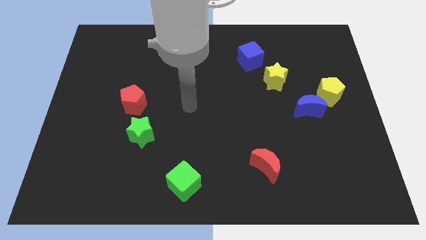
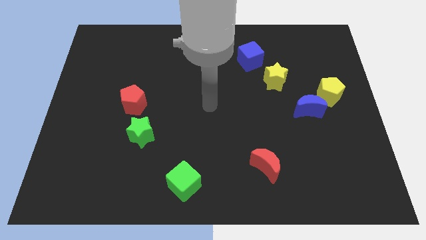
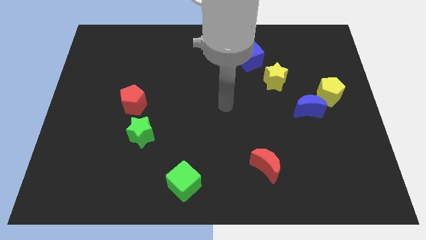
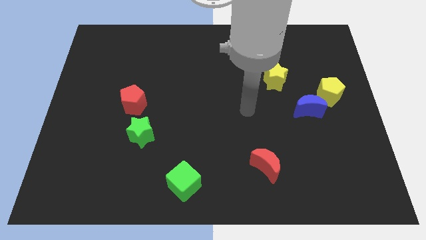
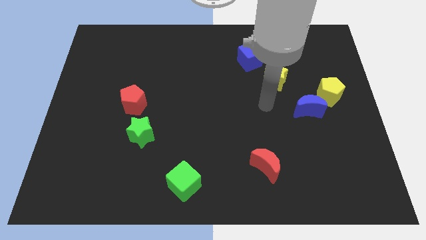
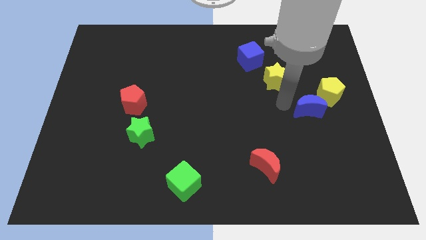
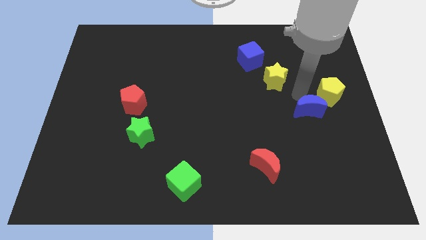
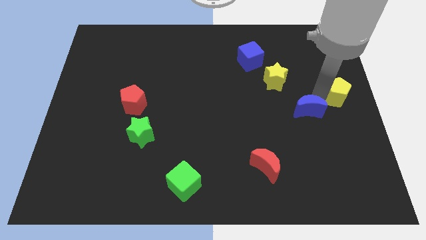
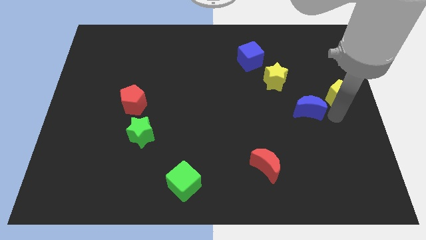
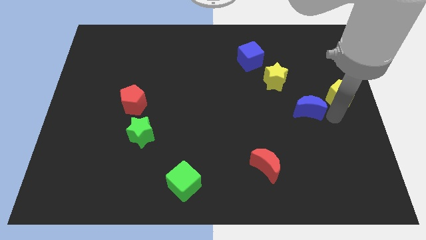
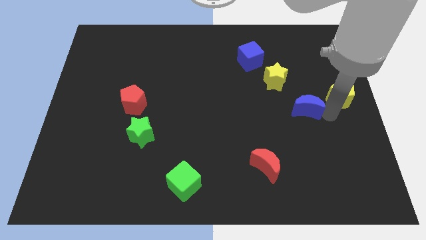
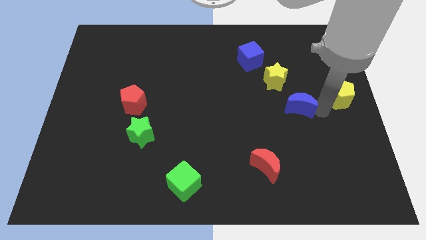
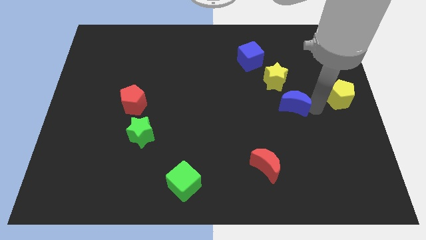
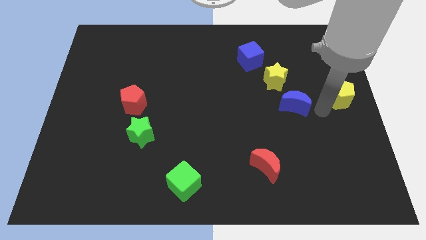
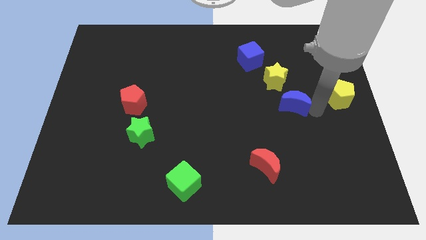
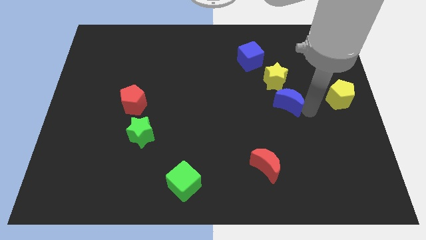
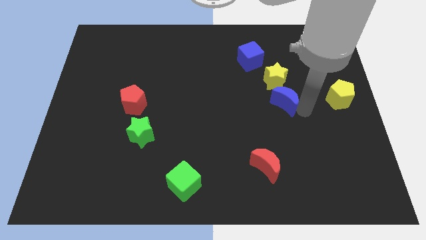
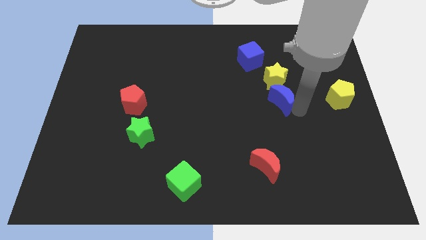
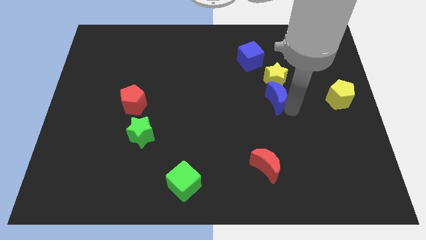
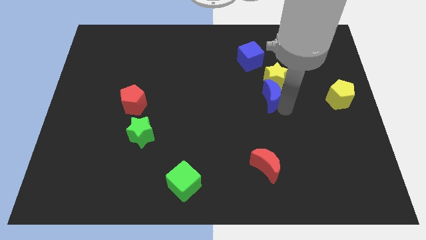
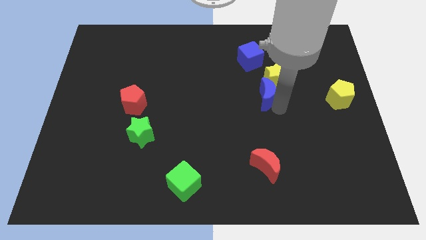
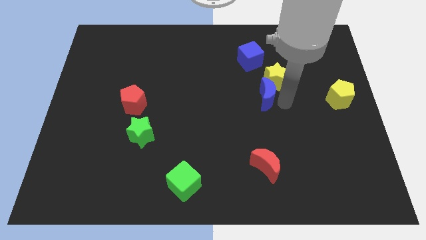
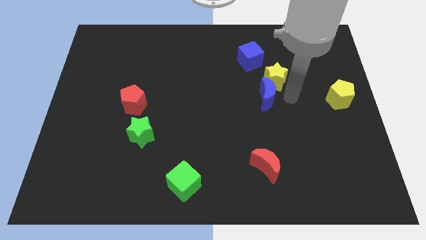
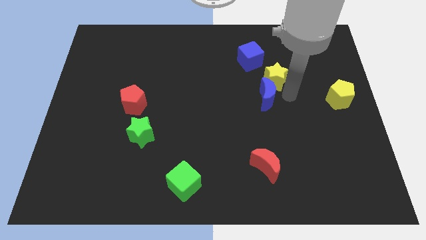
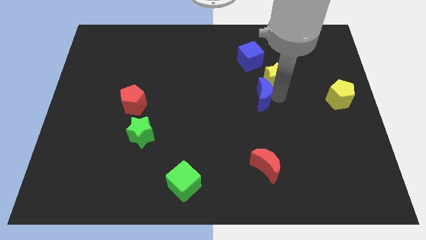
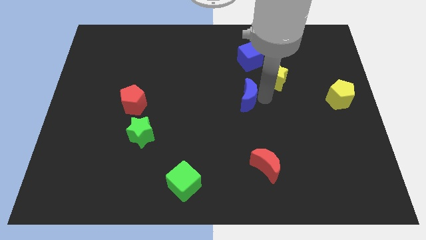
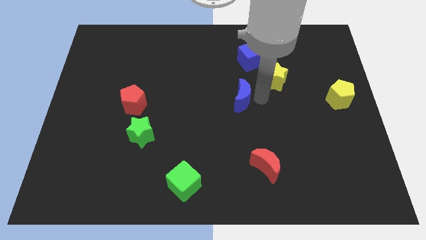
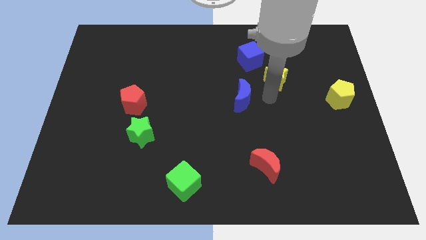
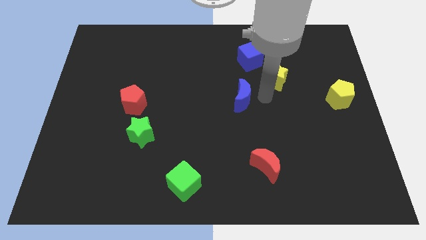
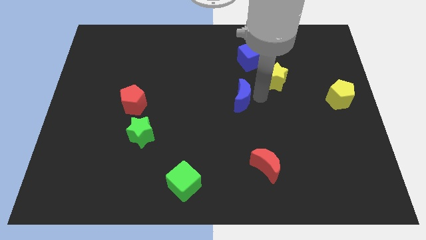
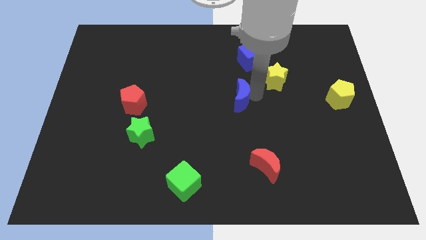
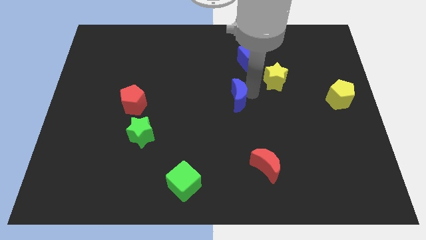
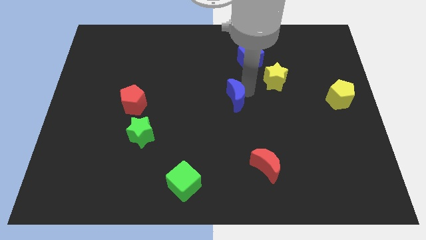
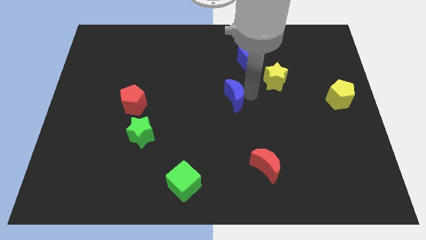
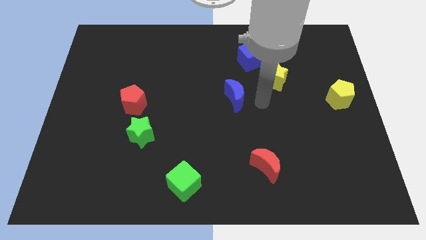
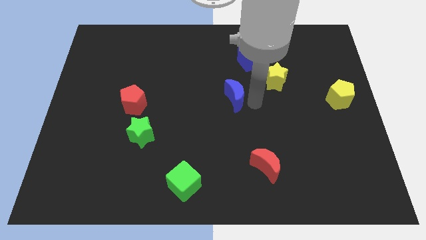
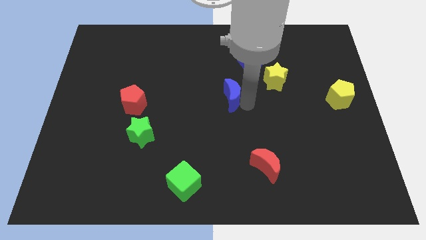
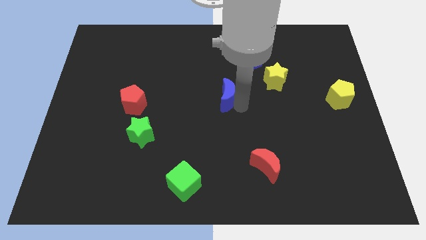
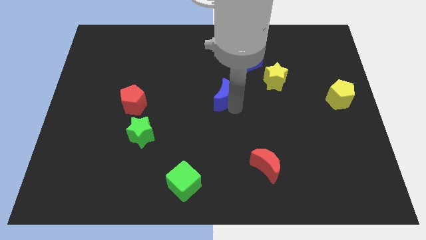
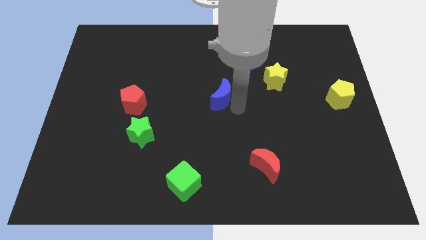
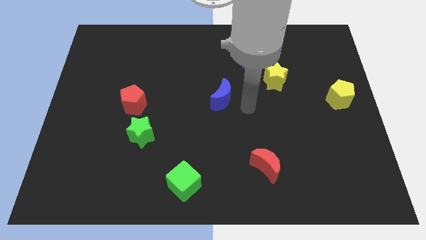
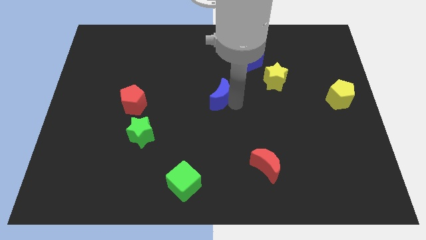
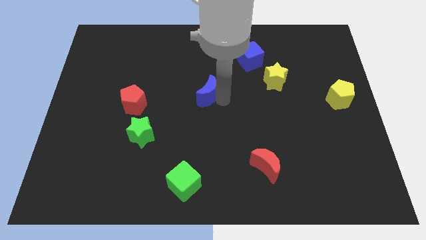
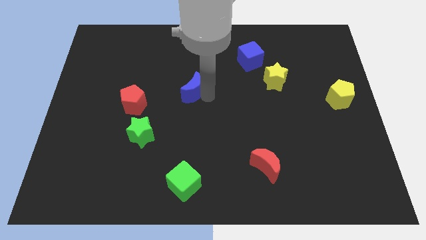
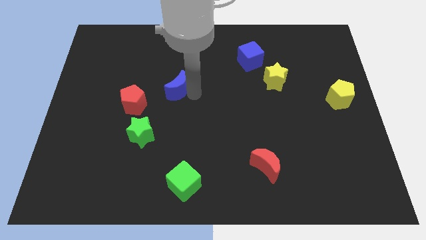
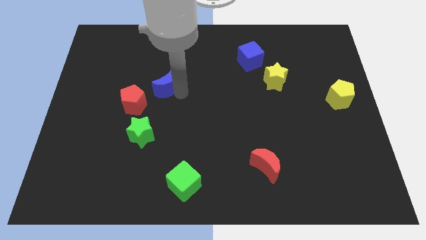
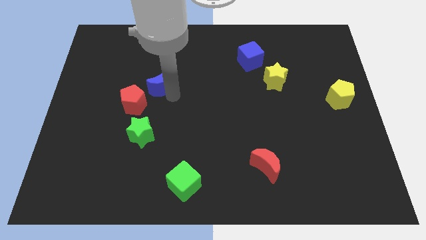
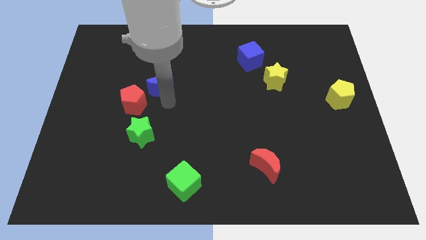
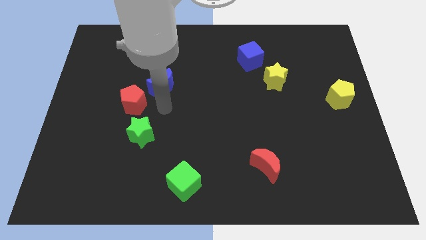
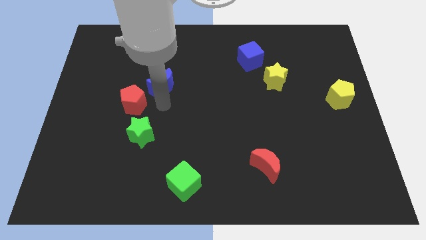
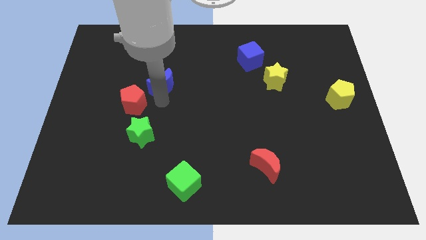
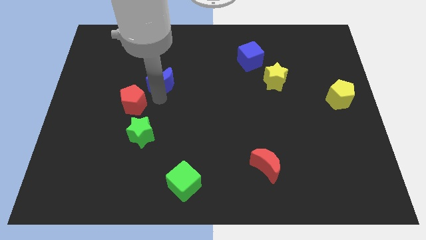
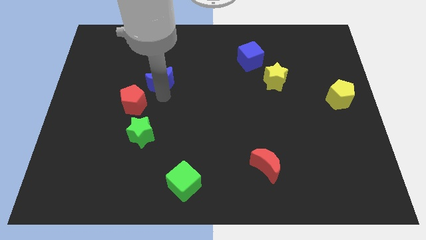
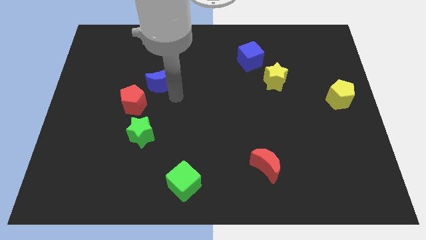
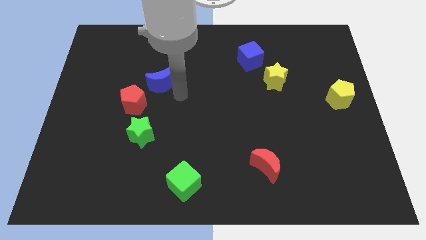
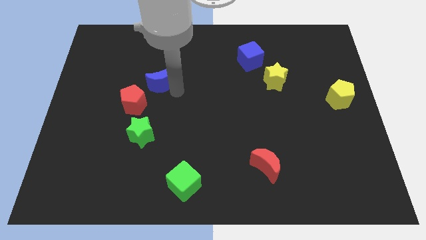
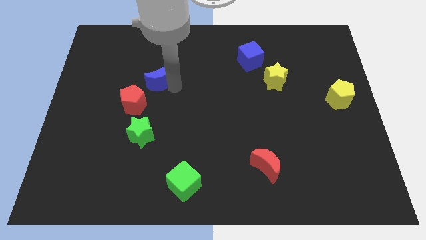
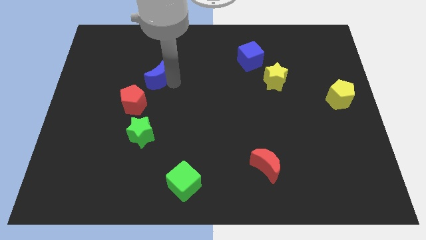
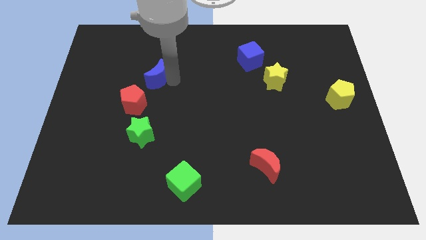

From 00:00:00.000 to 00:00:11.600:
move the blue moon to the top side of the red pentagon

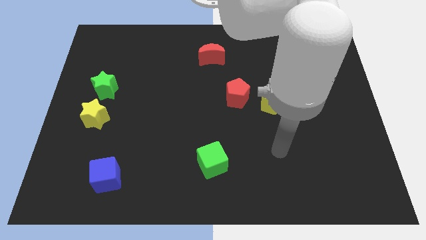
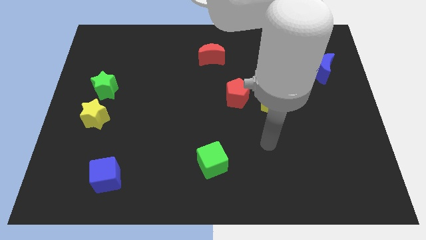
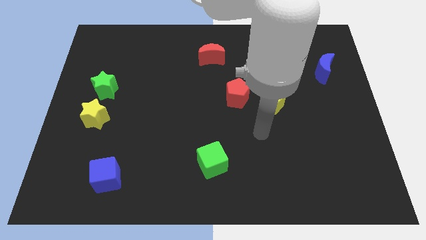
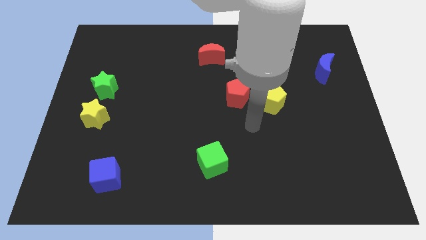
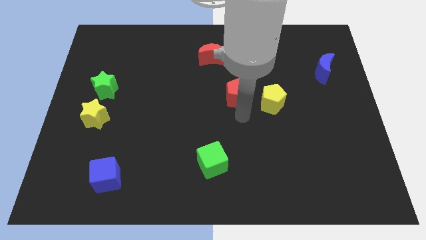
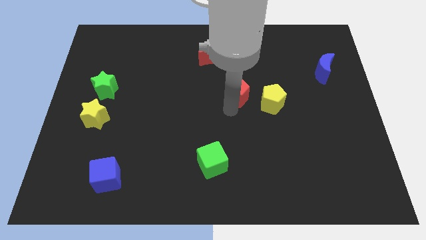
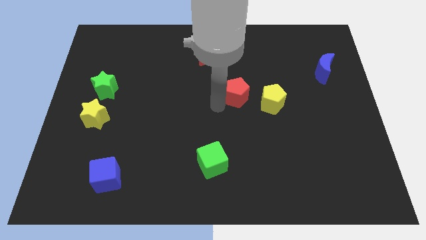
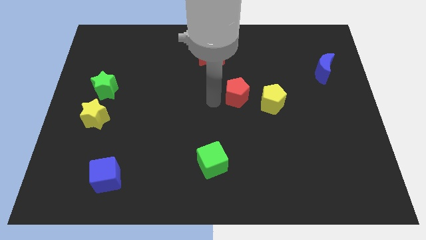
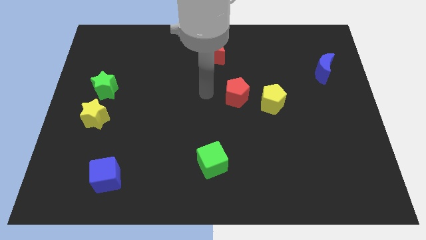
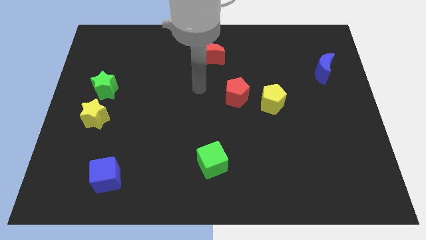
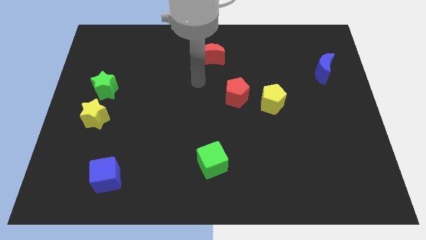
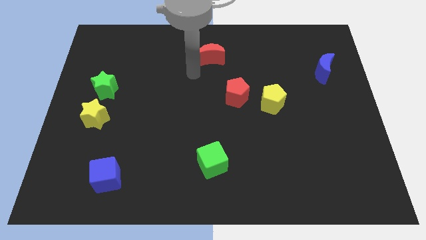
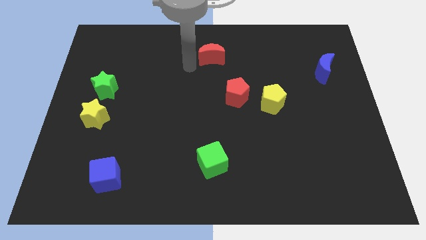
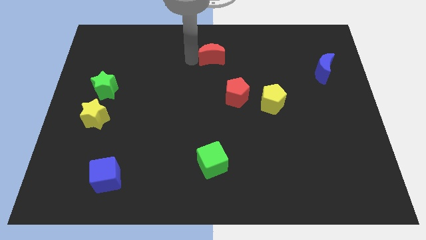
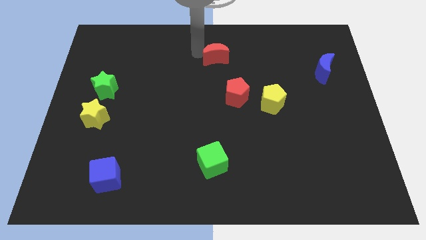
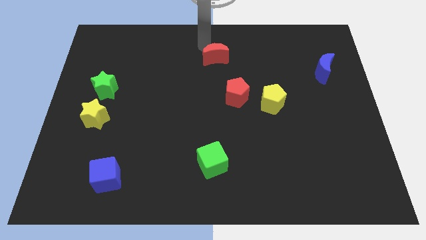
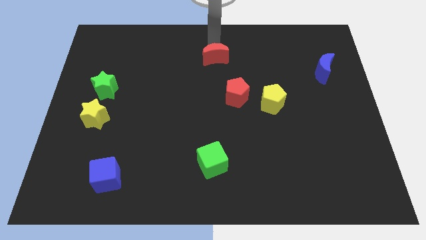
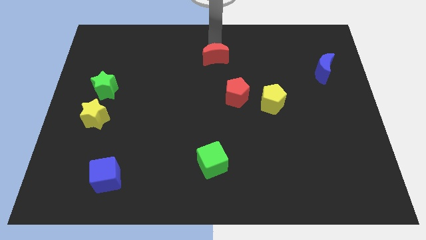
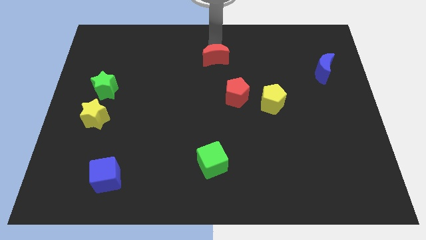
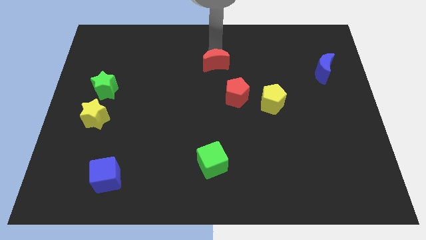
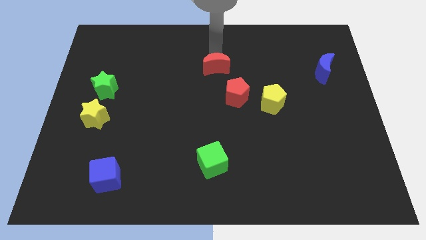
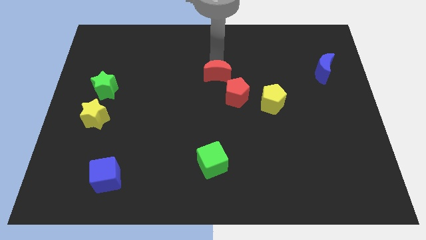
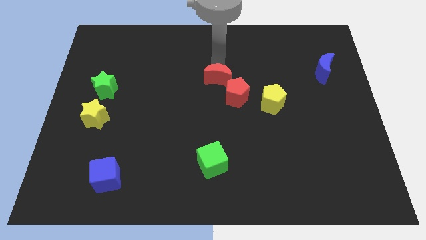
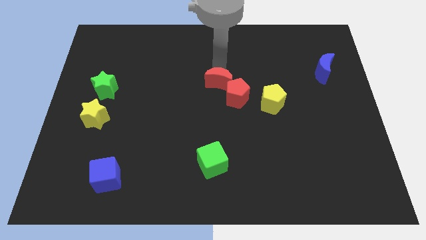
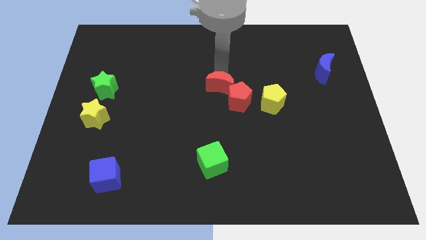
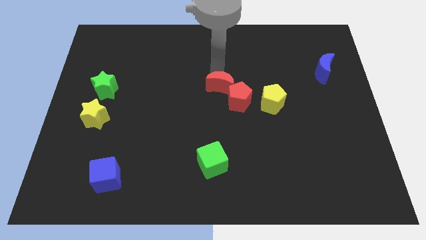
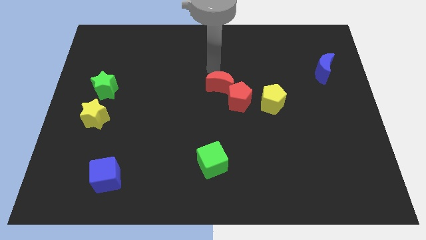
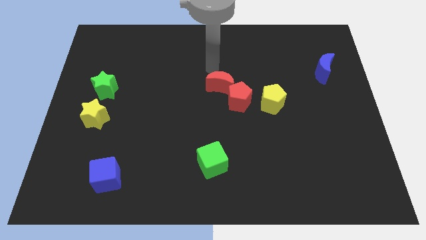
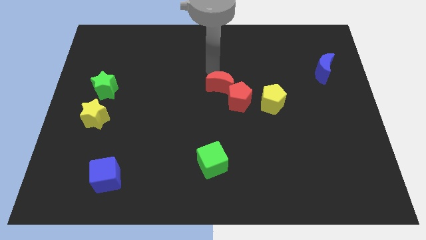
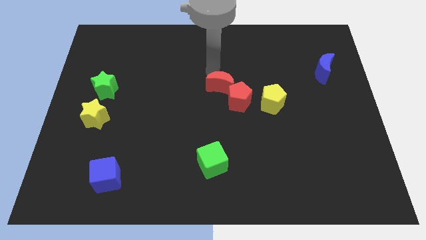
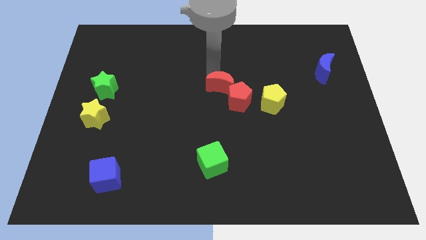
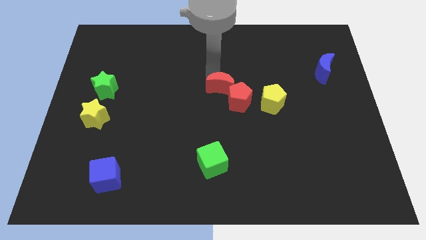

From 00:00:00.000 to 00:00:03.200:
slide the red moon to the left side of the yellow pentagon
